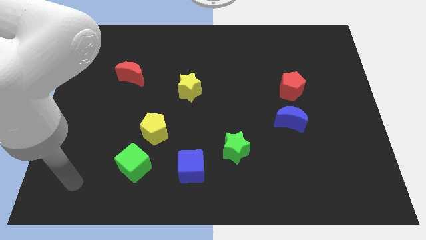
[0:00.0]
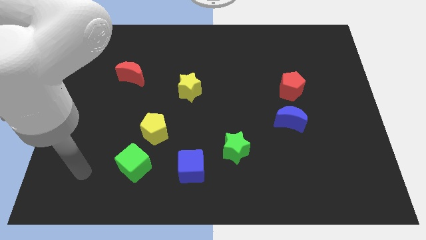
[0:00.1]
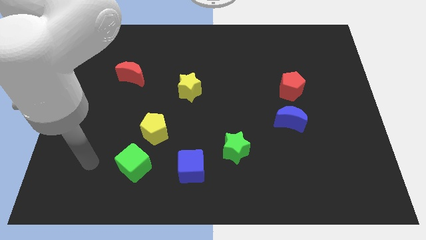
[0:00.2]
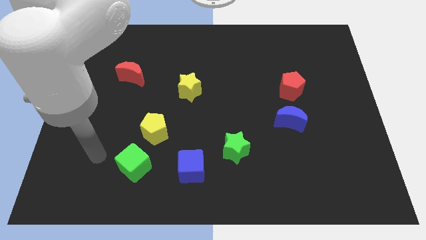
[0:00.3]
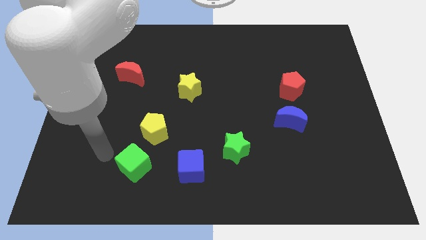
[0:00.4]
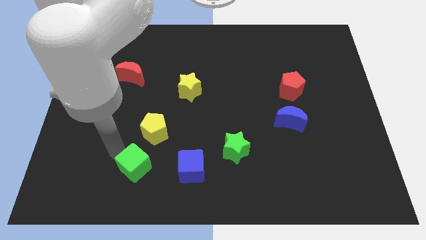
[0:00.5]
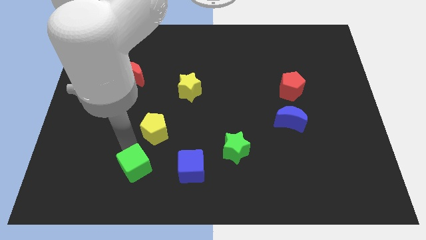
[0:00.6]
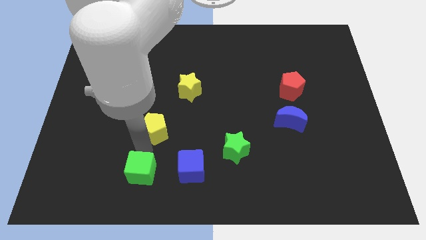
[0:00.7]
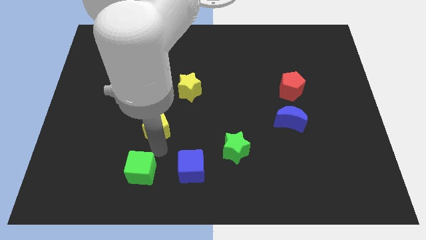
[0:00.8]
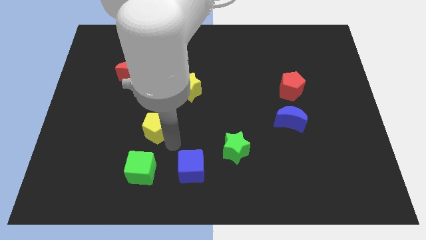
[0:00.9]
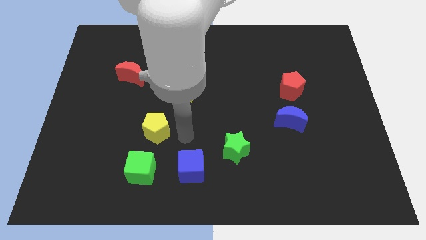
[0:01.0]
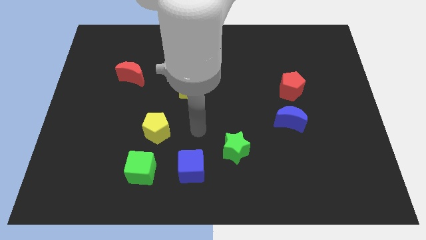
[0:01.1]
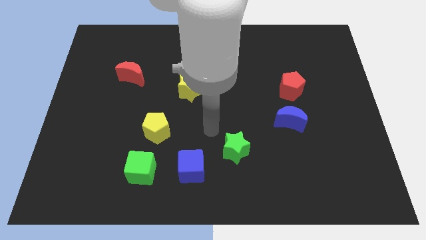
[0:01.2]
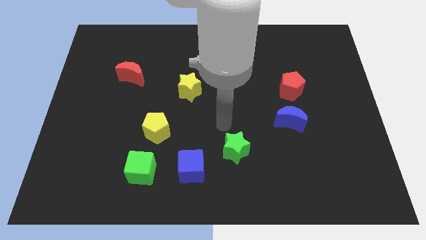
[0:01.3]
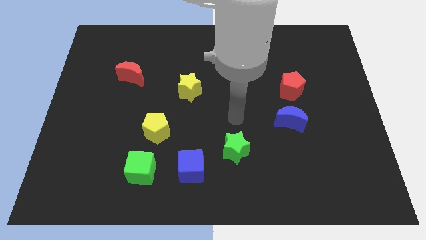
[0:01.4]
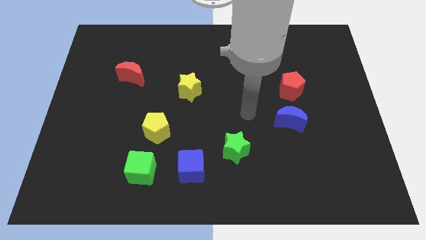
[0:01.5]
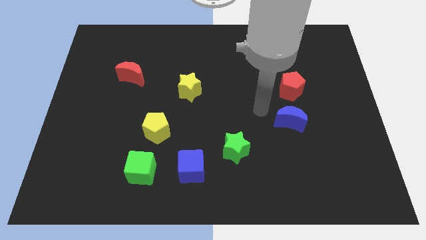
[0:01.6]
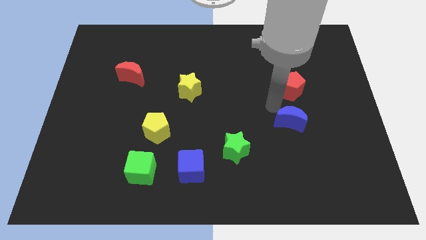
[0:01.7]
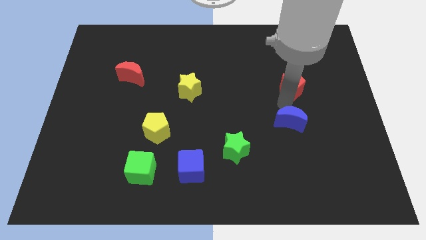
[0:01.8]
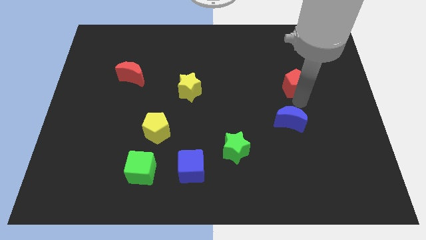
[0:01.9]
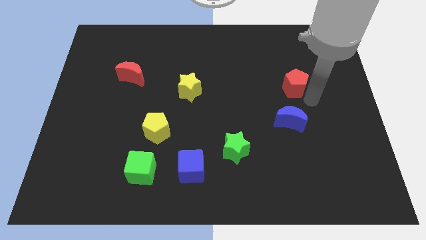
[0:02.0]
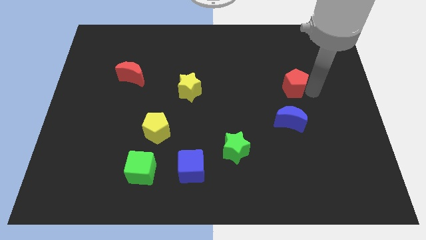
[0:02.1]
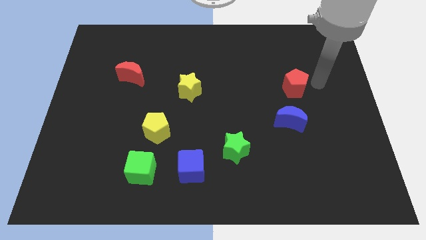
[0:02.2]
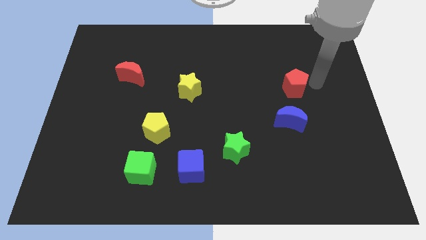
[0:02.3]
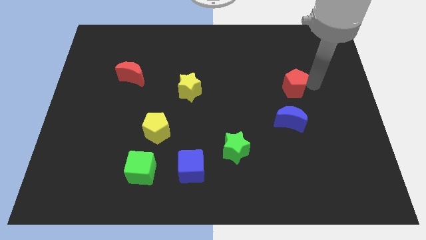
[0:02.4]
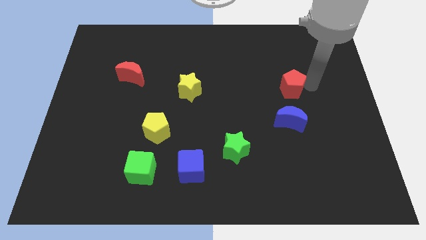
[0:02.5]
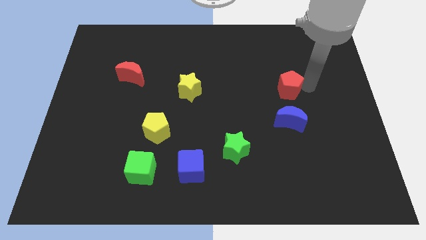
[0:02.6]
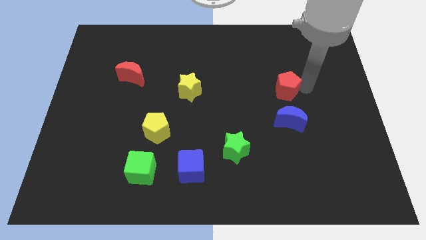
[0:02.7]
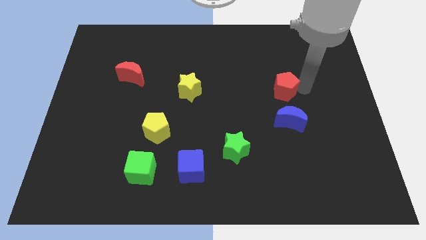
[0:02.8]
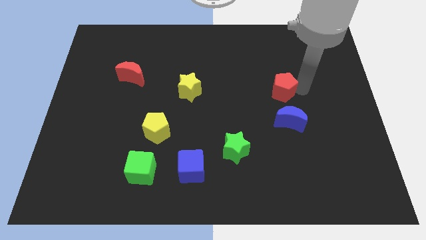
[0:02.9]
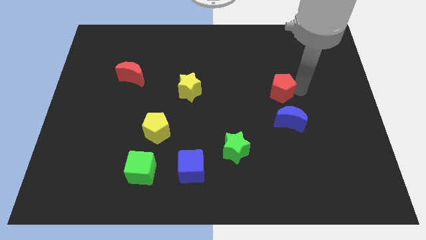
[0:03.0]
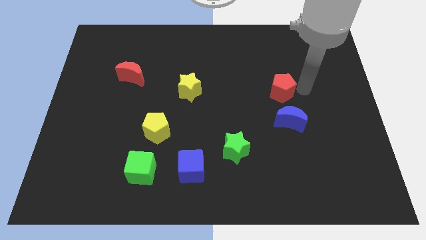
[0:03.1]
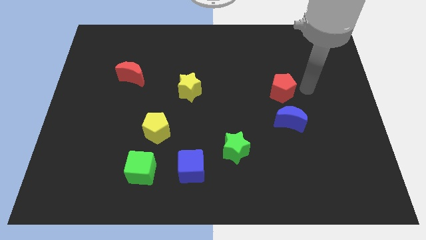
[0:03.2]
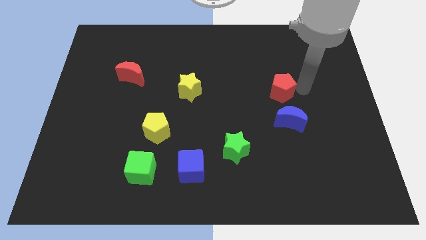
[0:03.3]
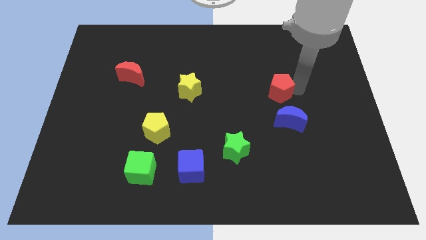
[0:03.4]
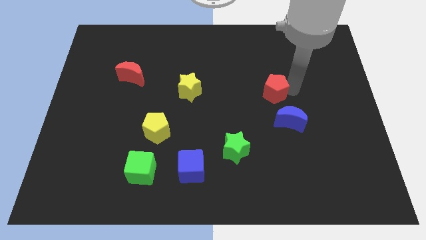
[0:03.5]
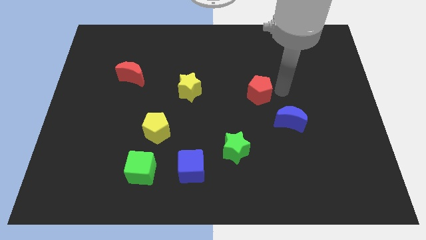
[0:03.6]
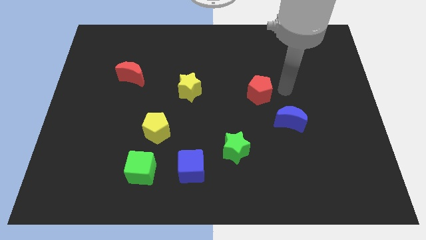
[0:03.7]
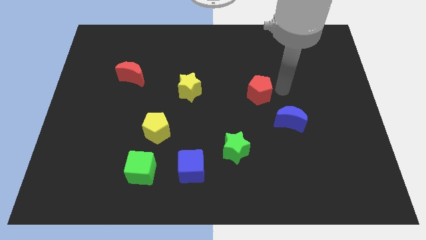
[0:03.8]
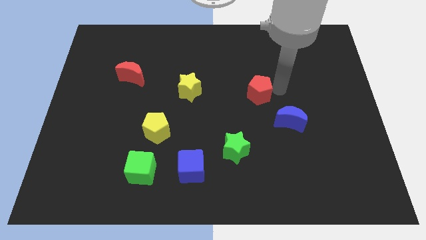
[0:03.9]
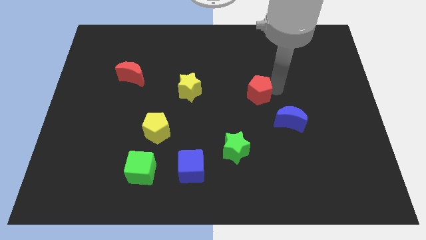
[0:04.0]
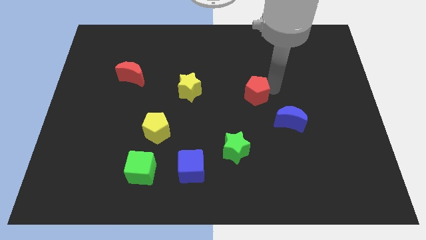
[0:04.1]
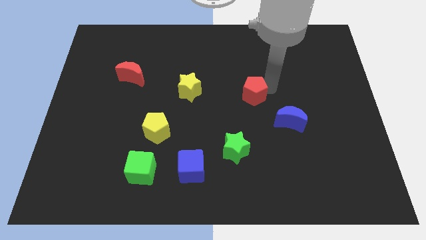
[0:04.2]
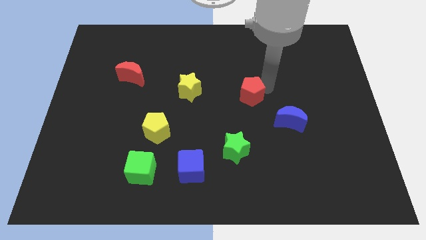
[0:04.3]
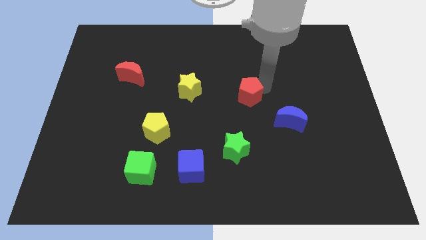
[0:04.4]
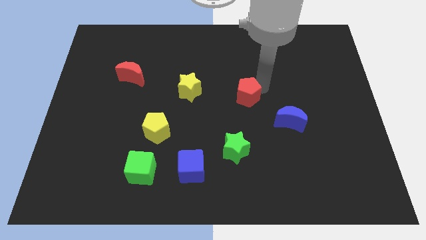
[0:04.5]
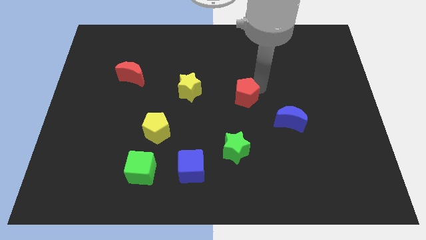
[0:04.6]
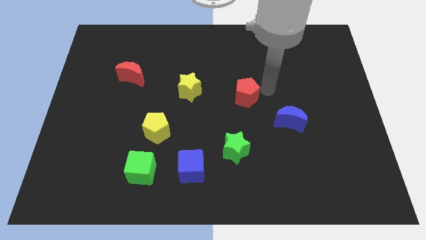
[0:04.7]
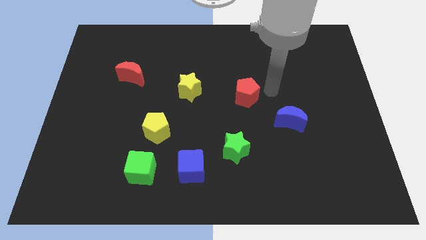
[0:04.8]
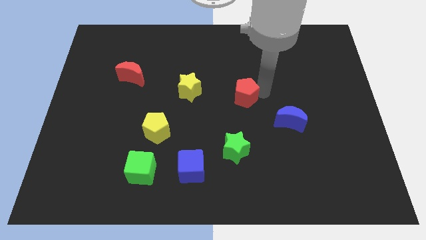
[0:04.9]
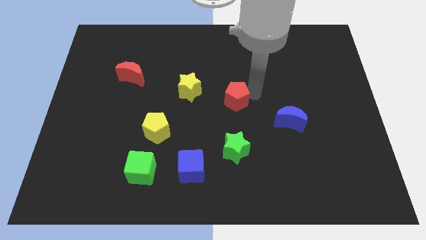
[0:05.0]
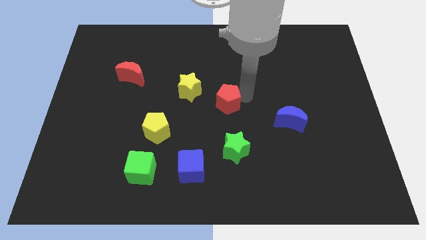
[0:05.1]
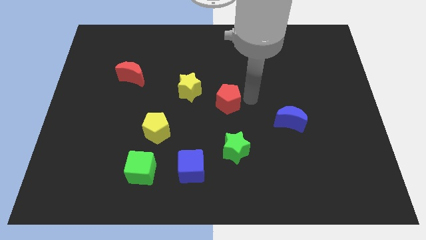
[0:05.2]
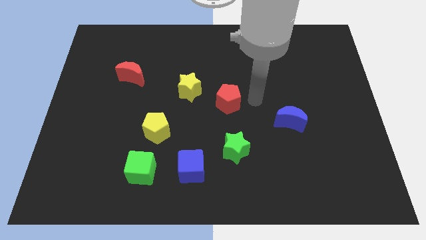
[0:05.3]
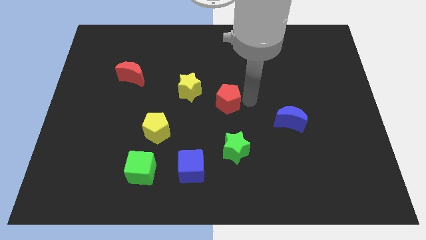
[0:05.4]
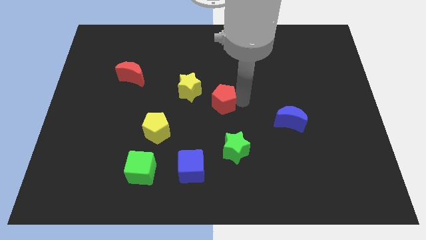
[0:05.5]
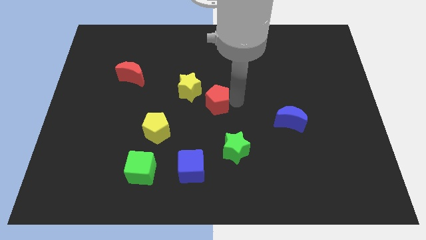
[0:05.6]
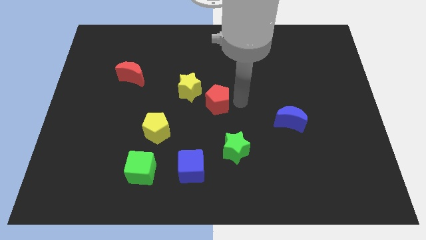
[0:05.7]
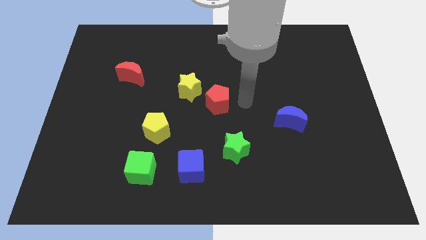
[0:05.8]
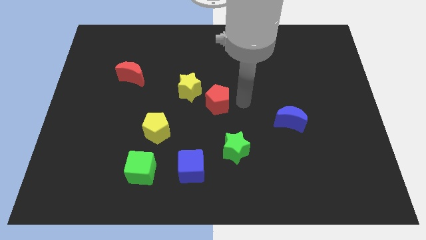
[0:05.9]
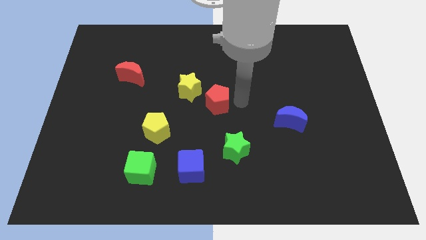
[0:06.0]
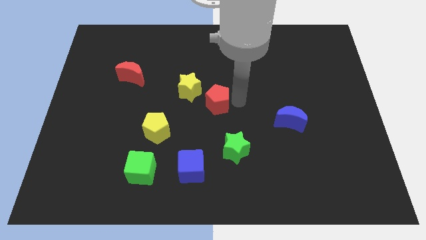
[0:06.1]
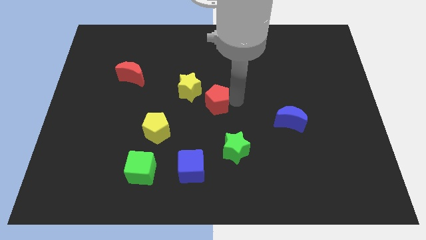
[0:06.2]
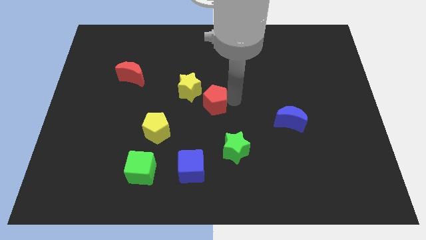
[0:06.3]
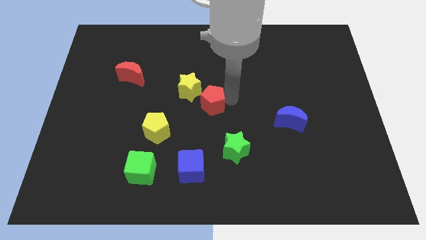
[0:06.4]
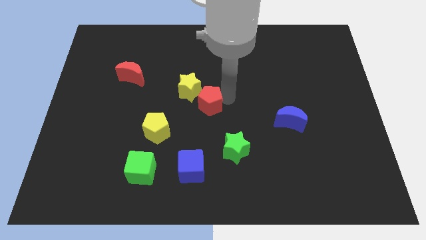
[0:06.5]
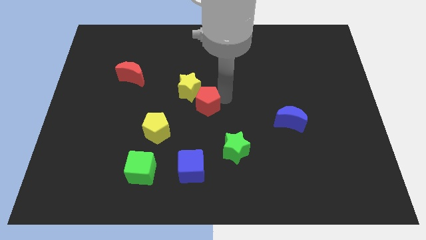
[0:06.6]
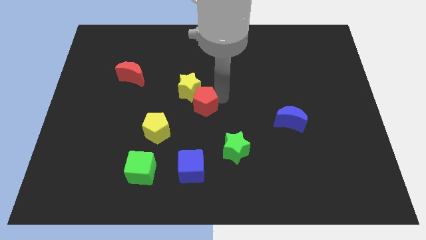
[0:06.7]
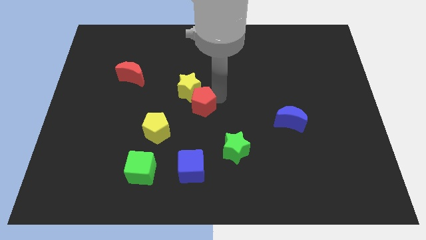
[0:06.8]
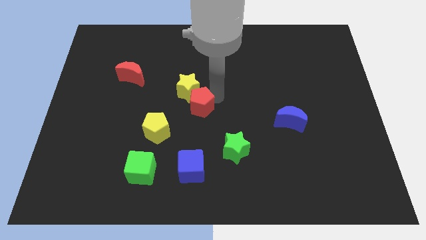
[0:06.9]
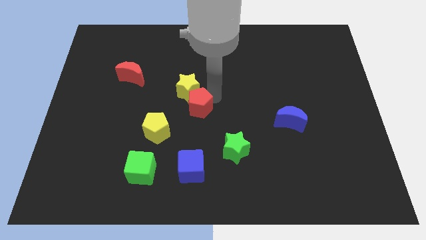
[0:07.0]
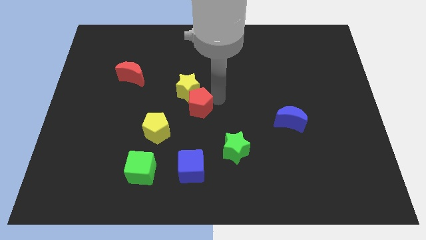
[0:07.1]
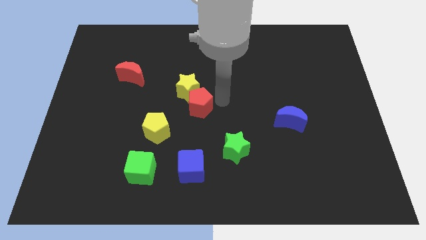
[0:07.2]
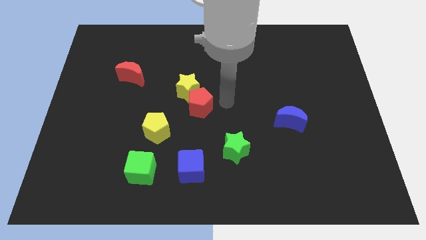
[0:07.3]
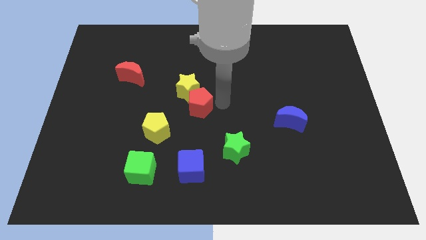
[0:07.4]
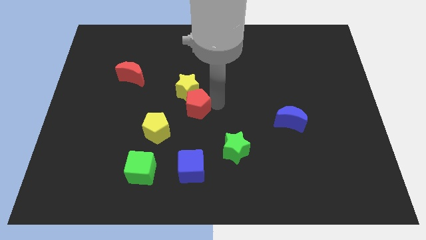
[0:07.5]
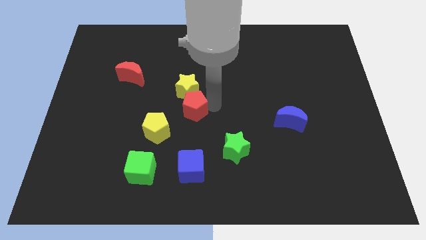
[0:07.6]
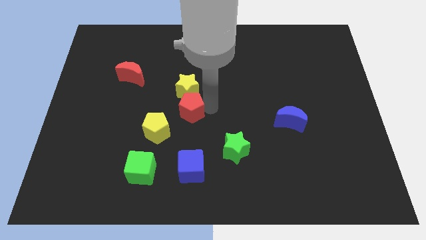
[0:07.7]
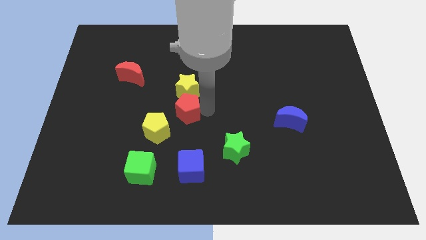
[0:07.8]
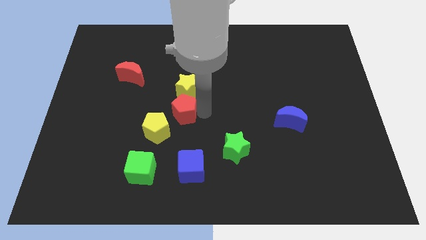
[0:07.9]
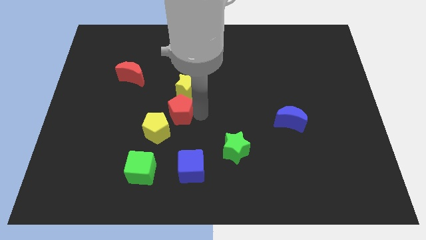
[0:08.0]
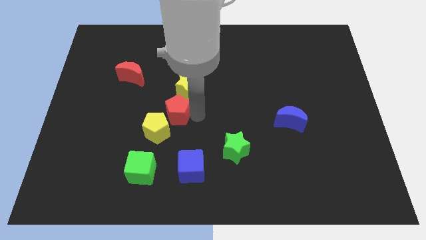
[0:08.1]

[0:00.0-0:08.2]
push the red pentagon to the top side of the yellow pentagon

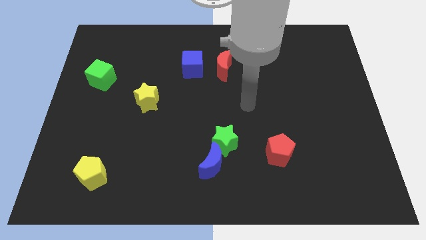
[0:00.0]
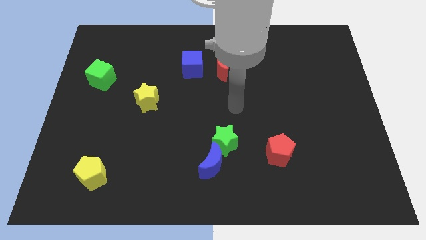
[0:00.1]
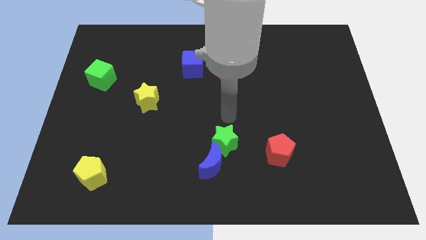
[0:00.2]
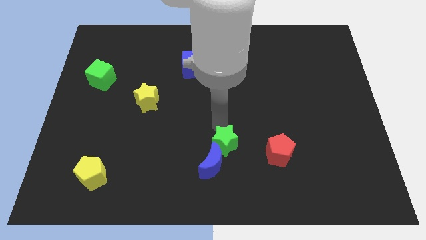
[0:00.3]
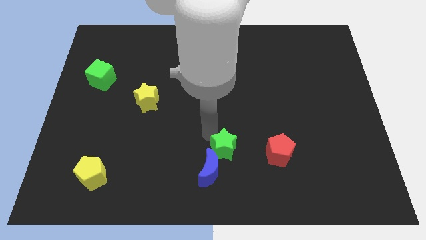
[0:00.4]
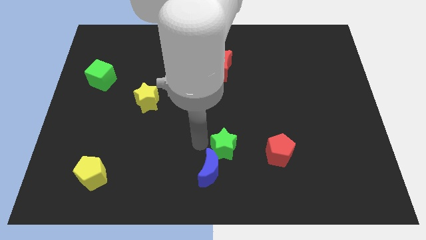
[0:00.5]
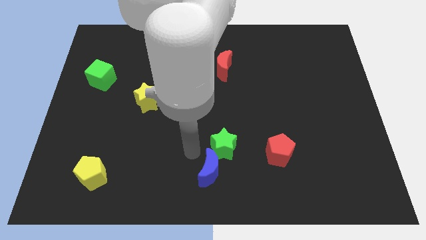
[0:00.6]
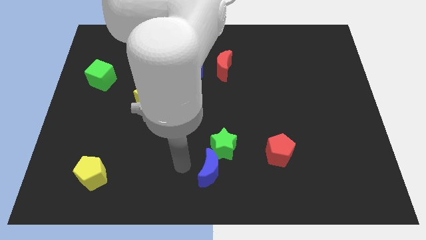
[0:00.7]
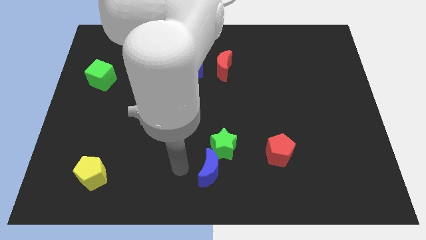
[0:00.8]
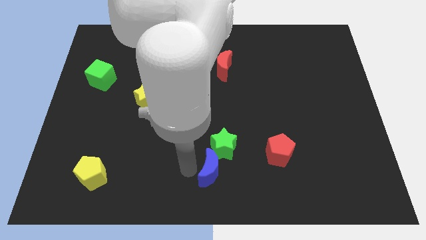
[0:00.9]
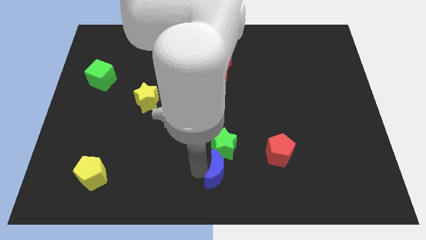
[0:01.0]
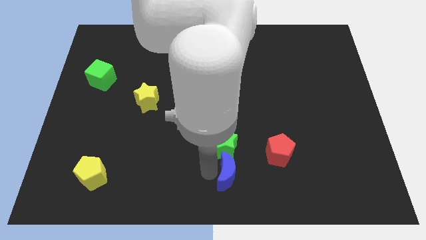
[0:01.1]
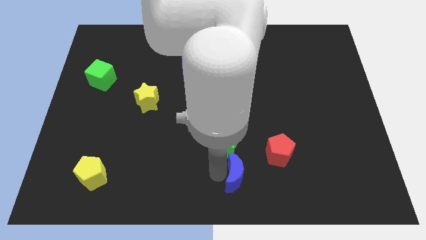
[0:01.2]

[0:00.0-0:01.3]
slide the blue moon diagonally down and to the left of the red pentagon
